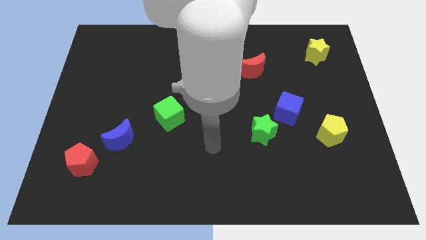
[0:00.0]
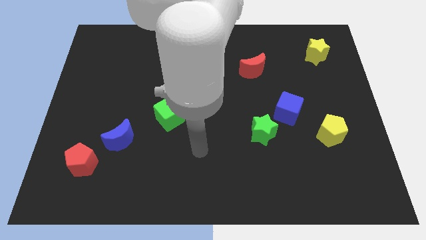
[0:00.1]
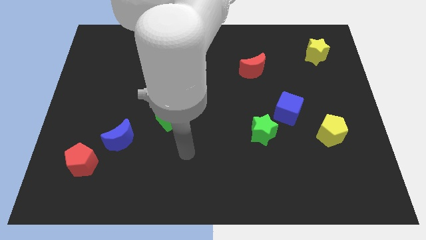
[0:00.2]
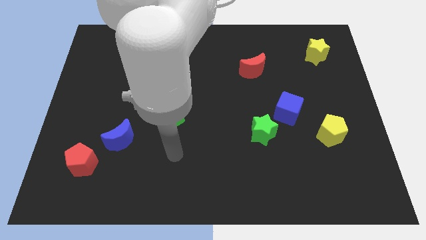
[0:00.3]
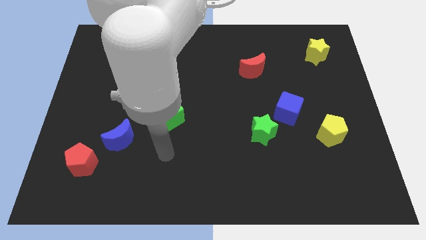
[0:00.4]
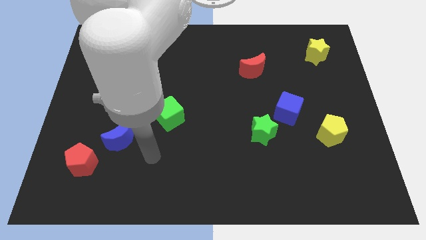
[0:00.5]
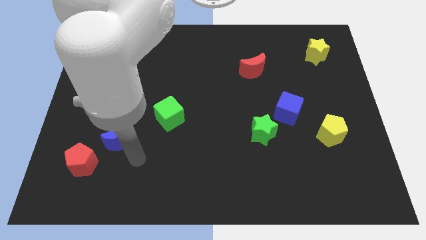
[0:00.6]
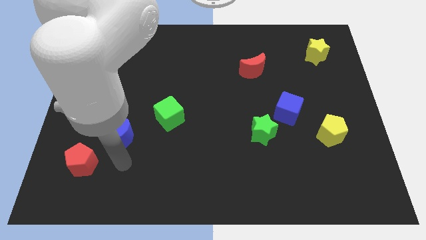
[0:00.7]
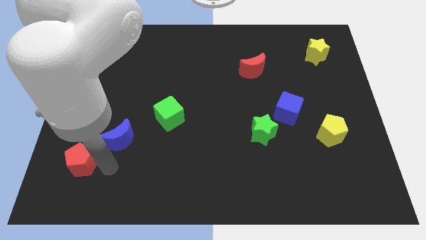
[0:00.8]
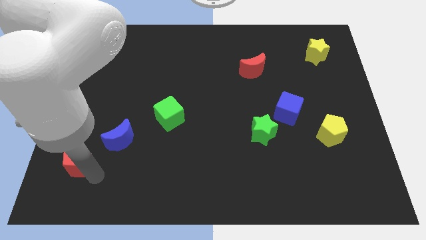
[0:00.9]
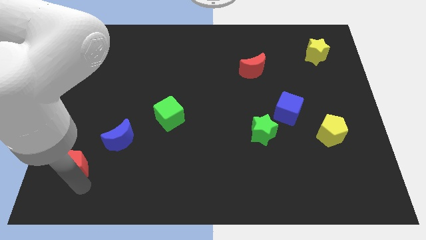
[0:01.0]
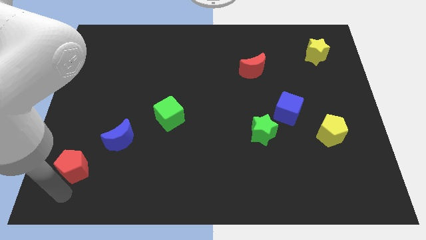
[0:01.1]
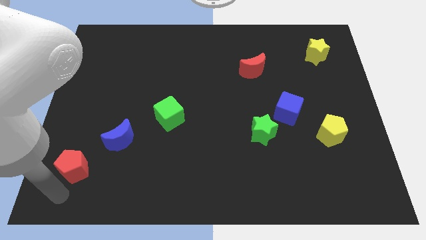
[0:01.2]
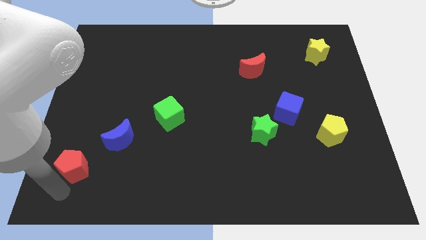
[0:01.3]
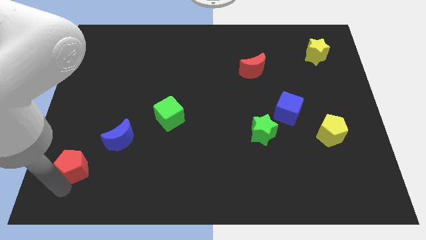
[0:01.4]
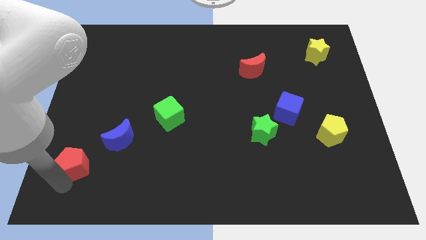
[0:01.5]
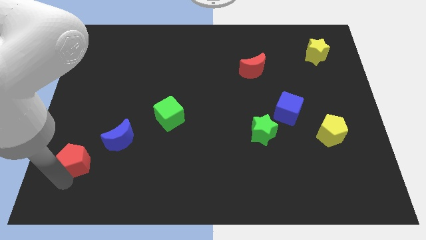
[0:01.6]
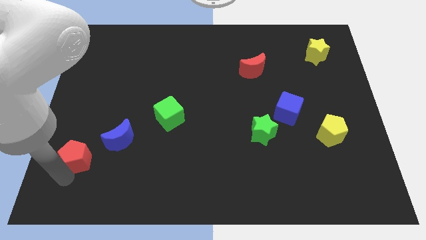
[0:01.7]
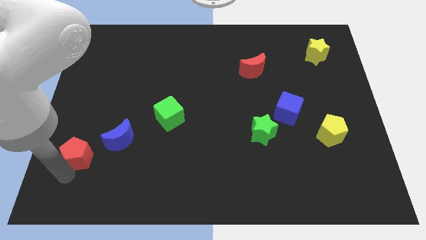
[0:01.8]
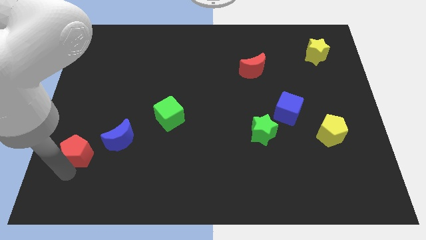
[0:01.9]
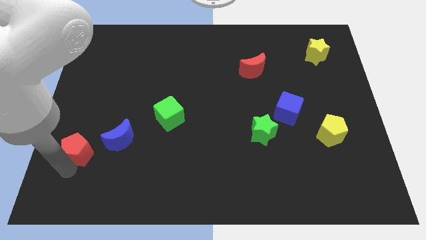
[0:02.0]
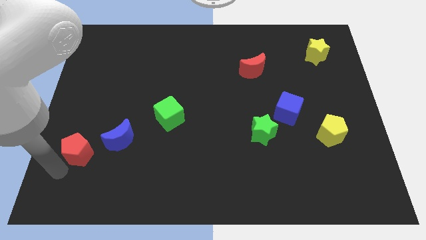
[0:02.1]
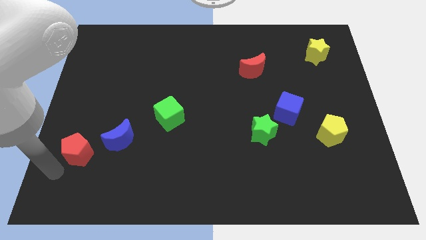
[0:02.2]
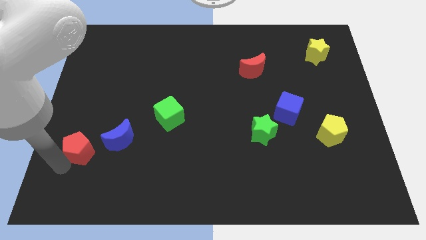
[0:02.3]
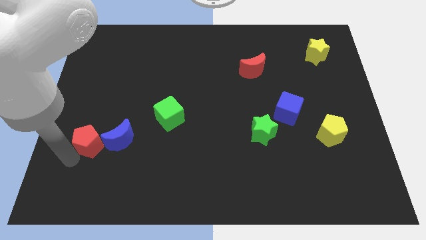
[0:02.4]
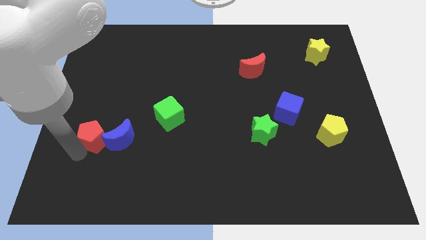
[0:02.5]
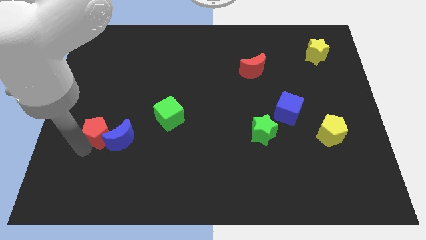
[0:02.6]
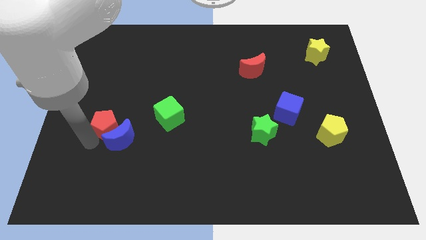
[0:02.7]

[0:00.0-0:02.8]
slightly push the red pentagon up and to the right

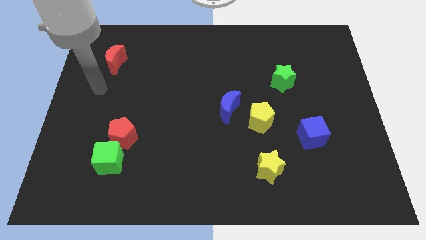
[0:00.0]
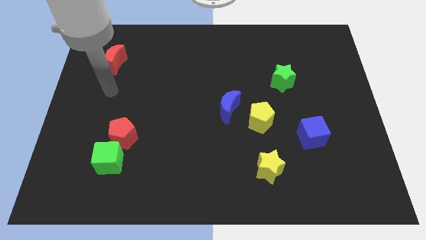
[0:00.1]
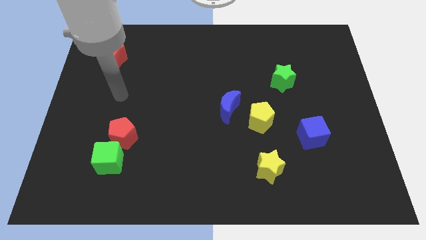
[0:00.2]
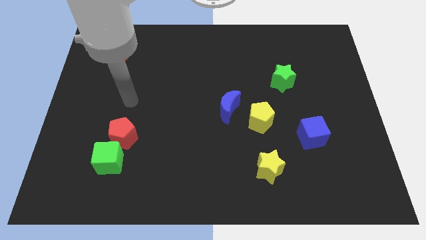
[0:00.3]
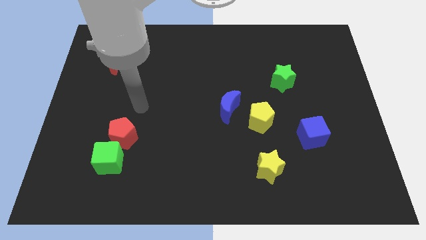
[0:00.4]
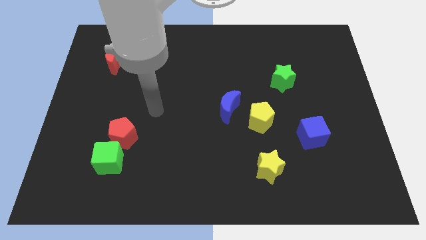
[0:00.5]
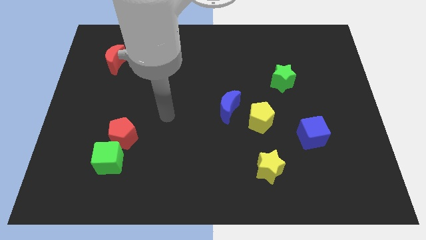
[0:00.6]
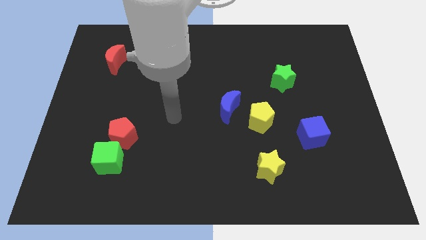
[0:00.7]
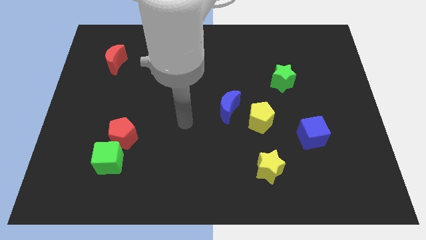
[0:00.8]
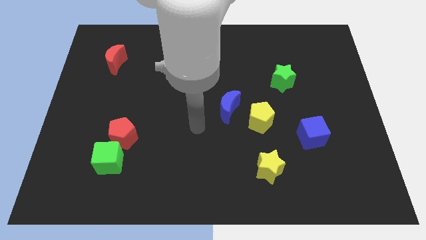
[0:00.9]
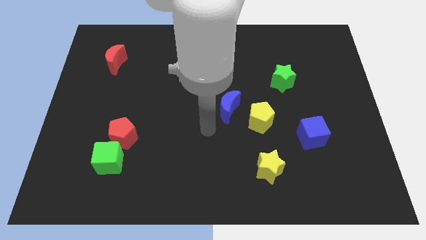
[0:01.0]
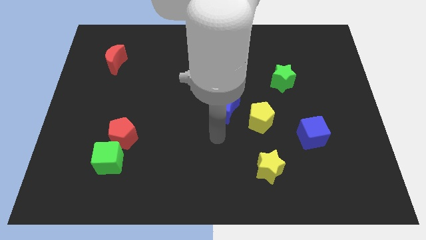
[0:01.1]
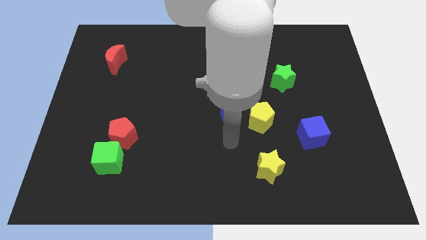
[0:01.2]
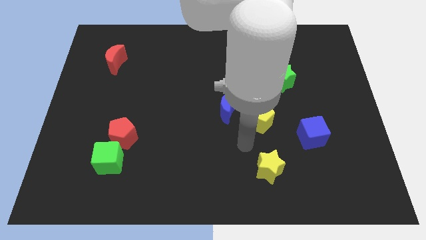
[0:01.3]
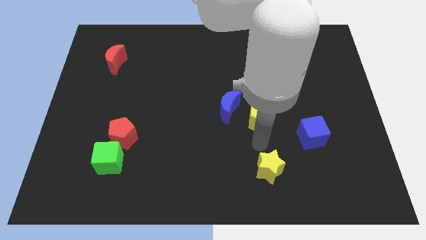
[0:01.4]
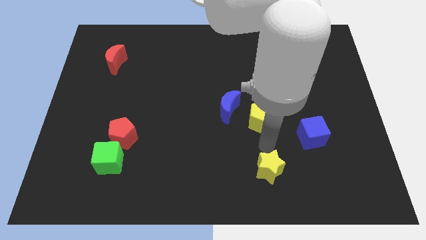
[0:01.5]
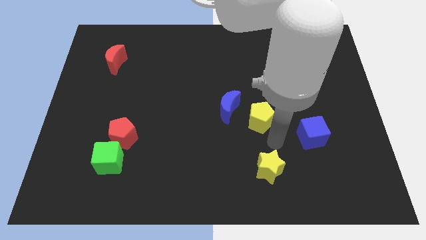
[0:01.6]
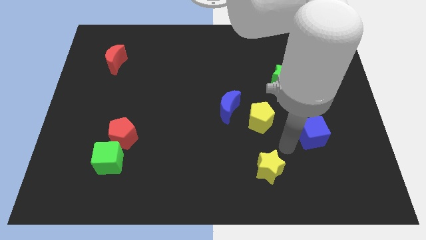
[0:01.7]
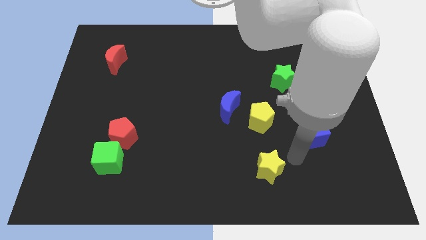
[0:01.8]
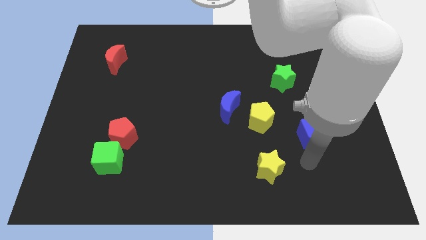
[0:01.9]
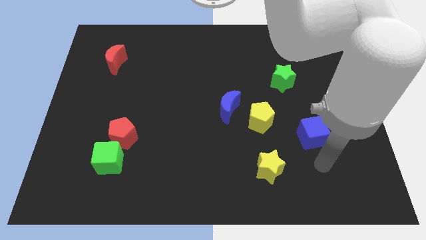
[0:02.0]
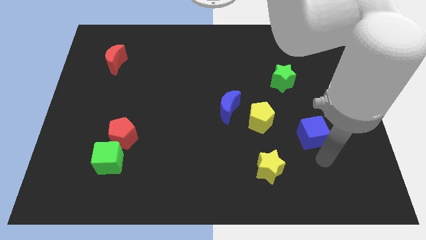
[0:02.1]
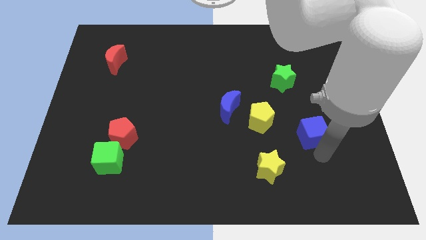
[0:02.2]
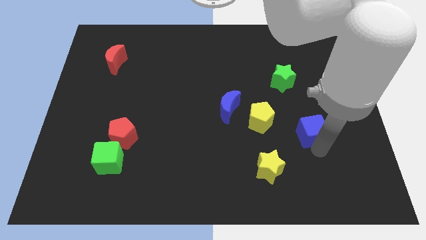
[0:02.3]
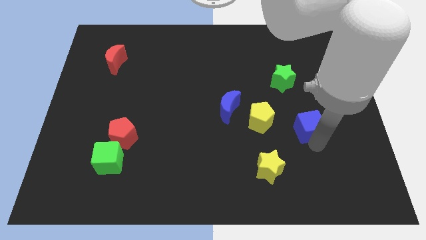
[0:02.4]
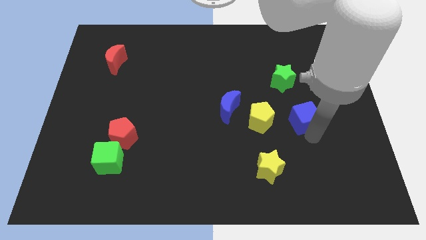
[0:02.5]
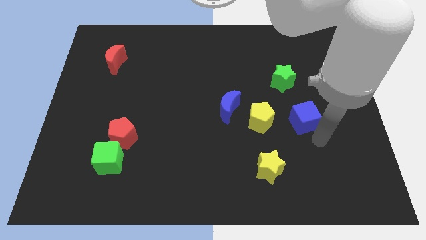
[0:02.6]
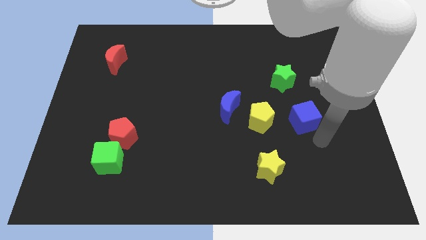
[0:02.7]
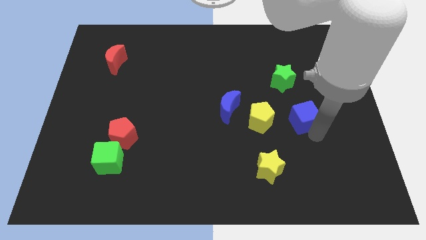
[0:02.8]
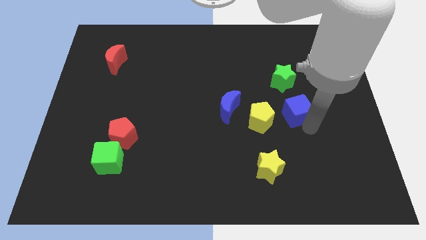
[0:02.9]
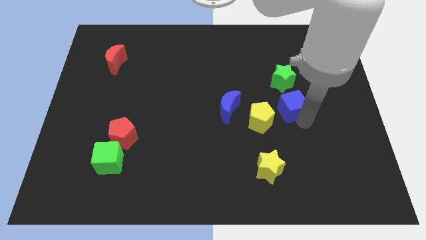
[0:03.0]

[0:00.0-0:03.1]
move the blue cube upwards and then to the left a little

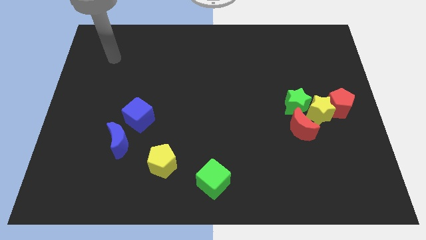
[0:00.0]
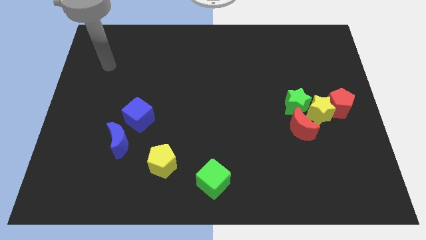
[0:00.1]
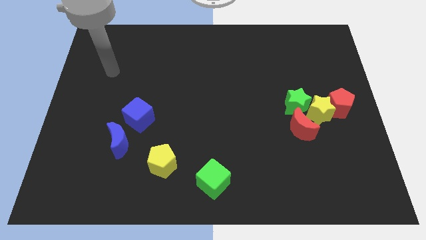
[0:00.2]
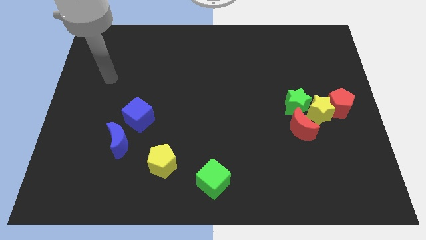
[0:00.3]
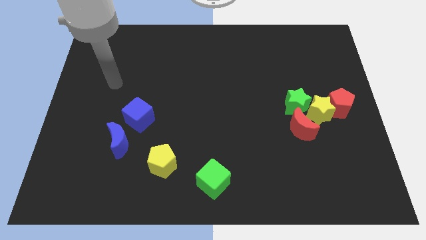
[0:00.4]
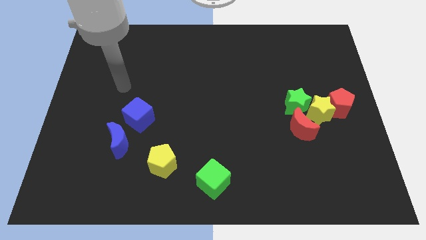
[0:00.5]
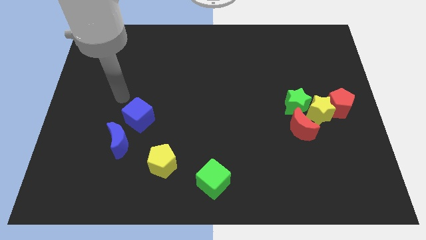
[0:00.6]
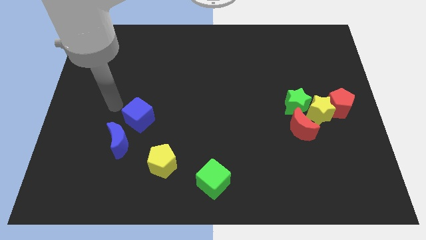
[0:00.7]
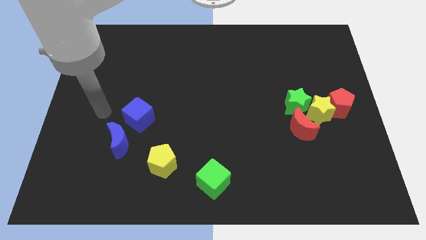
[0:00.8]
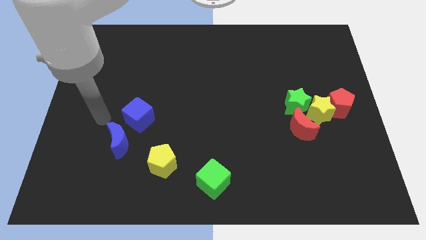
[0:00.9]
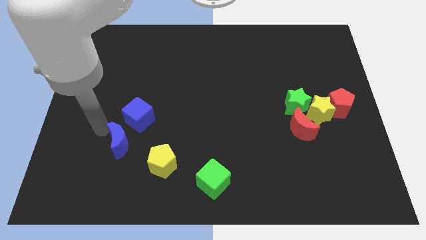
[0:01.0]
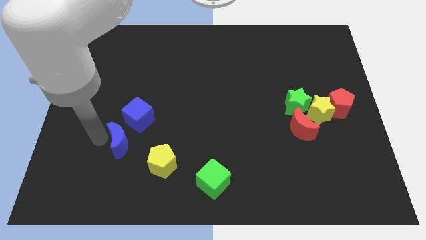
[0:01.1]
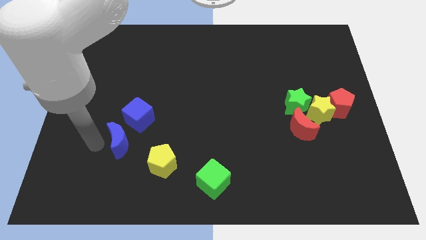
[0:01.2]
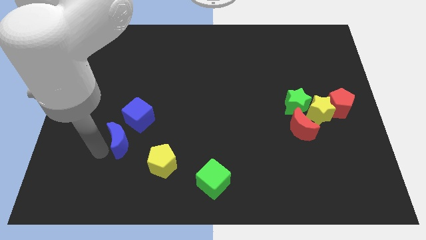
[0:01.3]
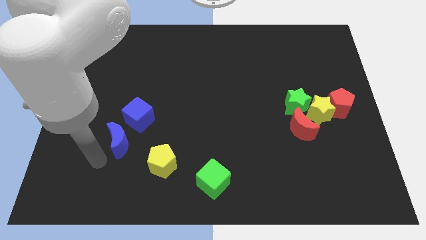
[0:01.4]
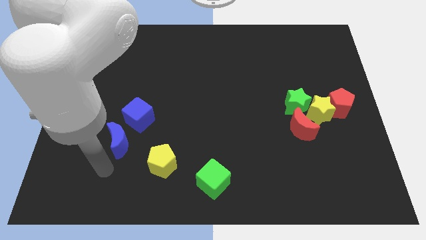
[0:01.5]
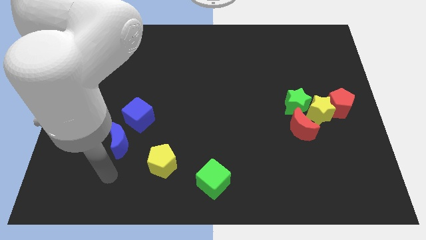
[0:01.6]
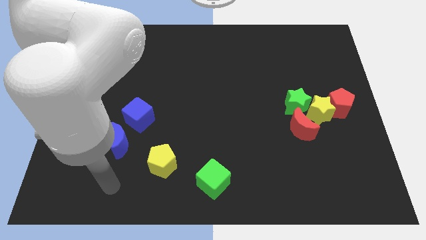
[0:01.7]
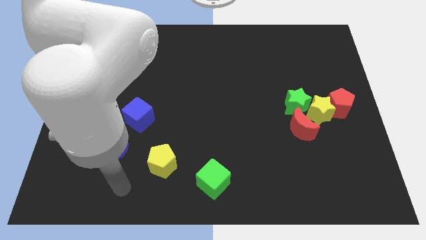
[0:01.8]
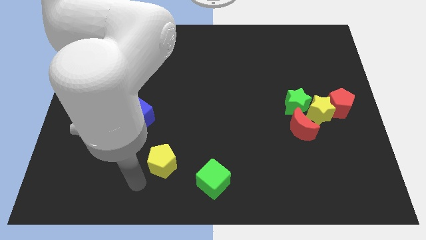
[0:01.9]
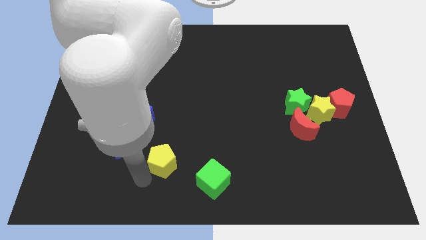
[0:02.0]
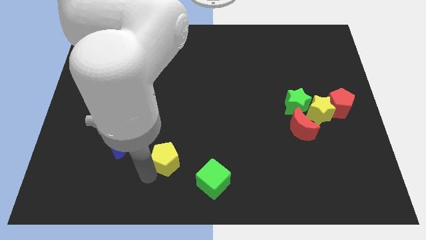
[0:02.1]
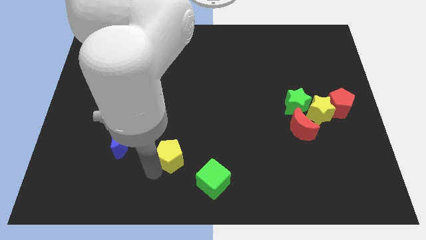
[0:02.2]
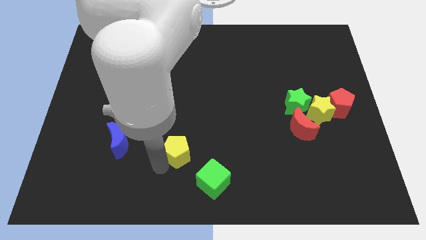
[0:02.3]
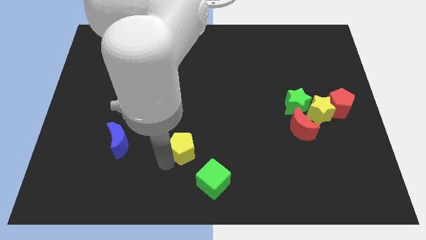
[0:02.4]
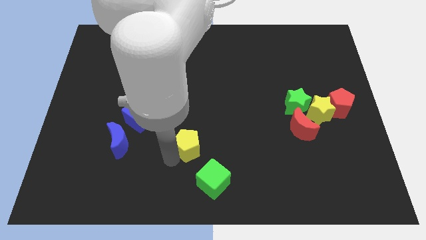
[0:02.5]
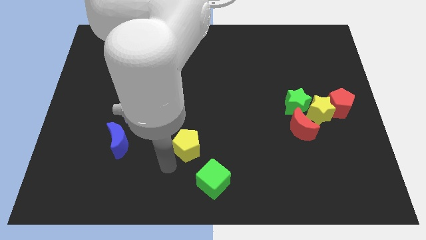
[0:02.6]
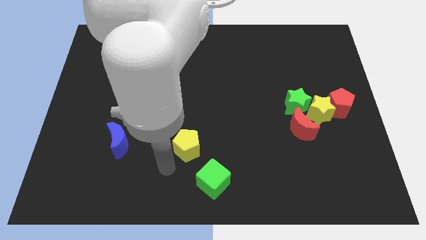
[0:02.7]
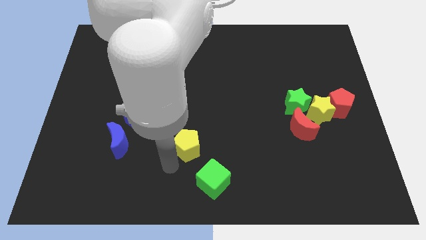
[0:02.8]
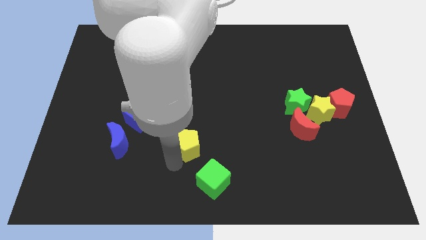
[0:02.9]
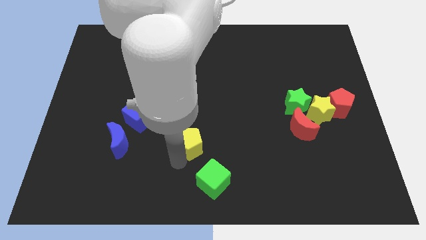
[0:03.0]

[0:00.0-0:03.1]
slightly push the yellow pentagon upwards and to the right
